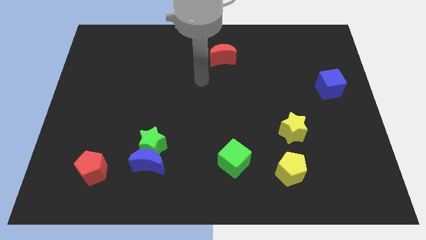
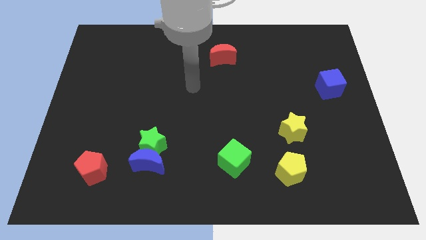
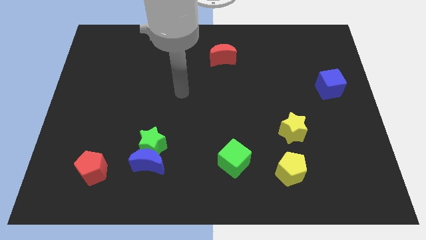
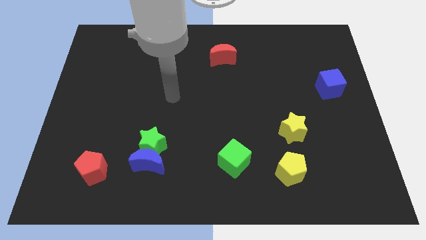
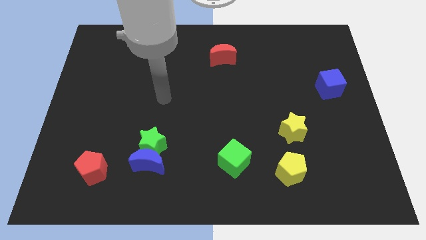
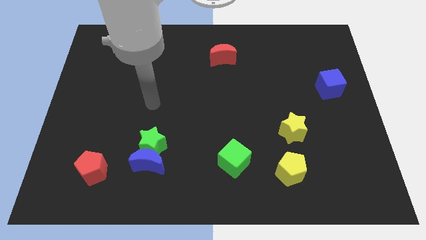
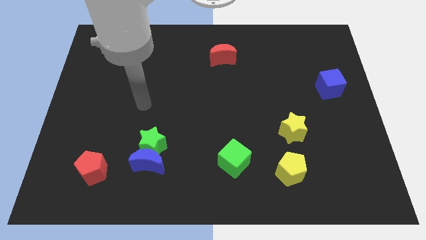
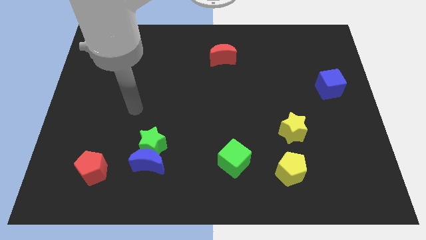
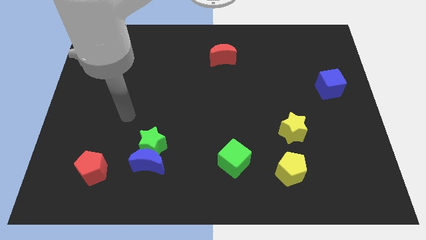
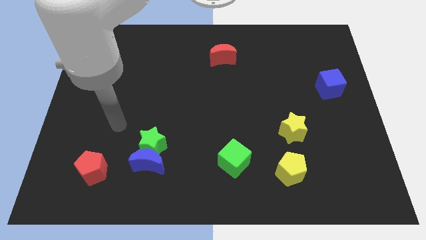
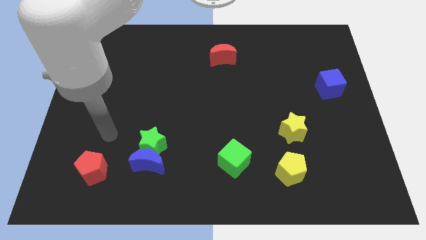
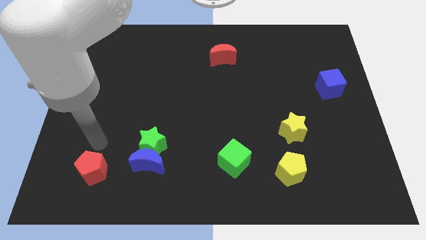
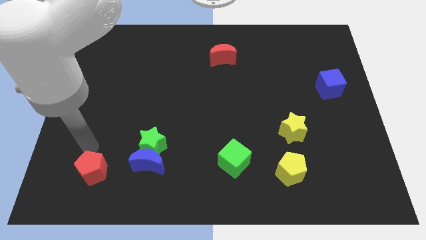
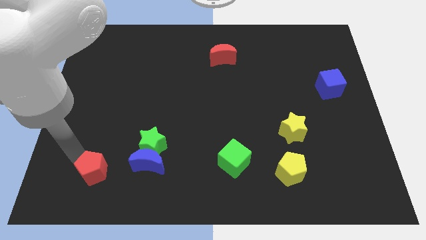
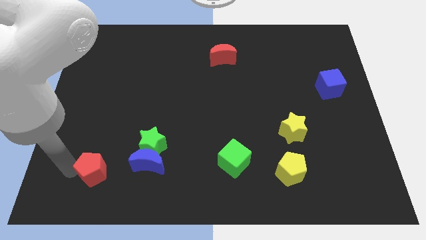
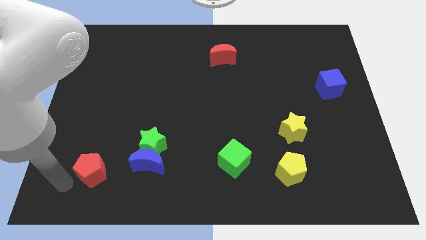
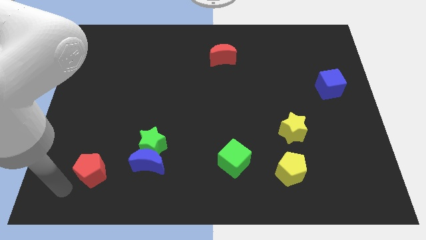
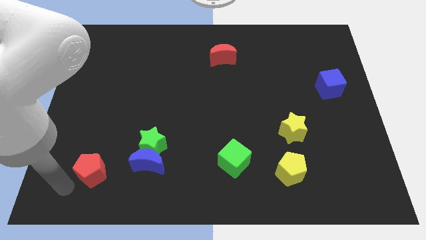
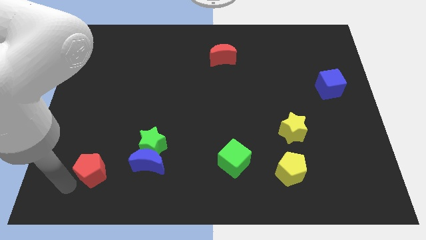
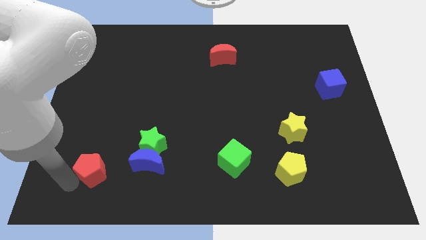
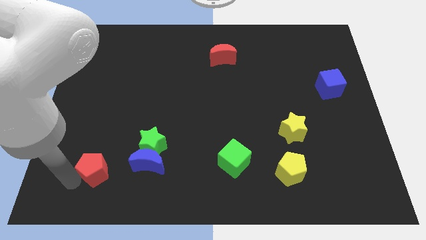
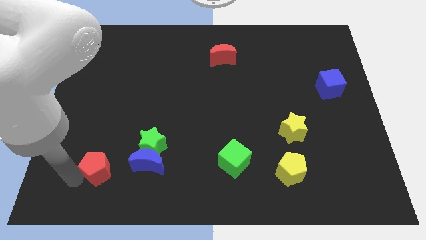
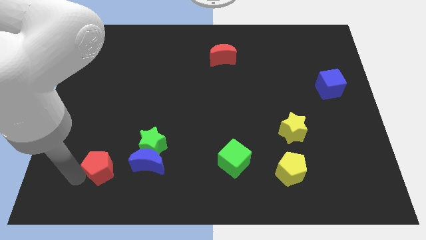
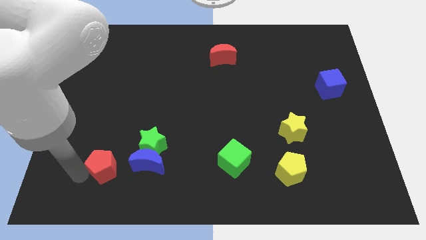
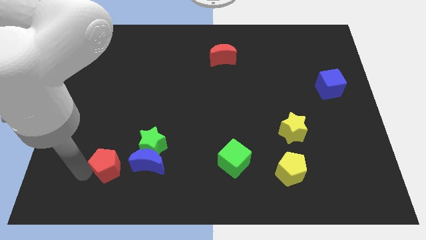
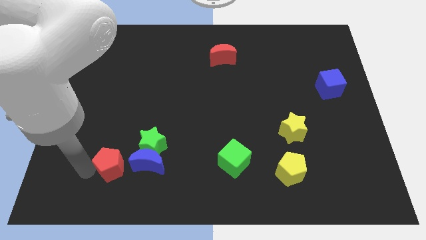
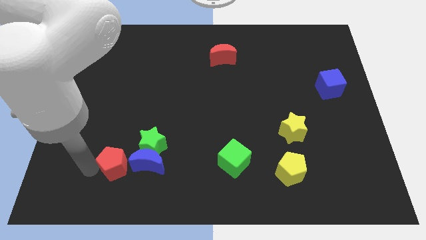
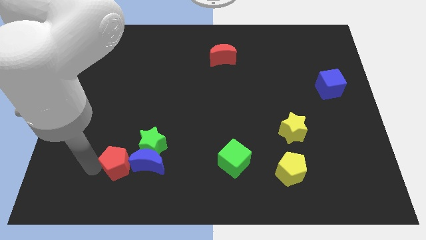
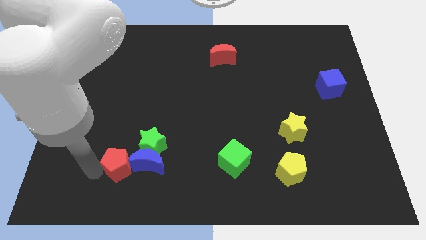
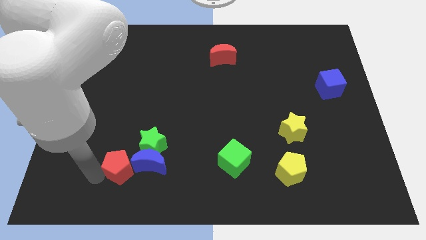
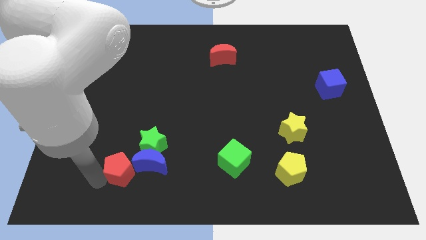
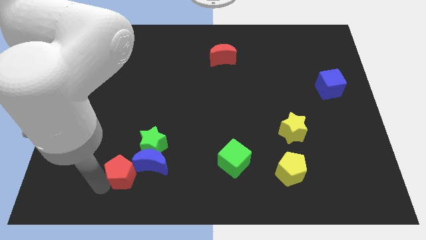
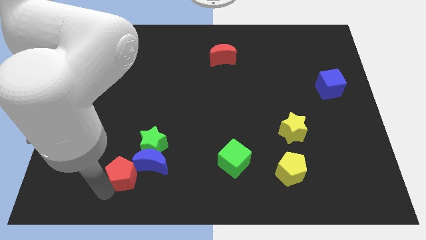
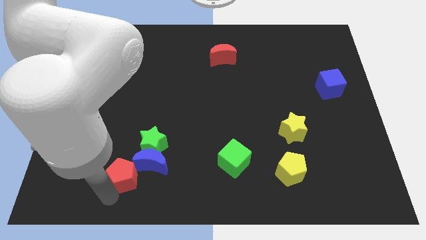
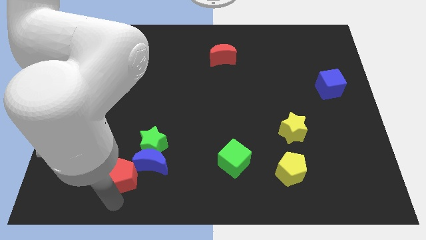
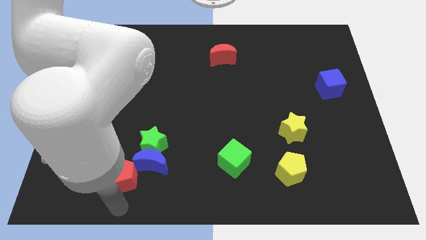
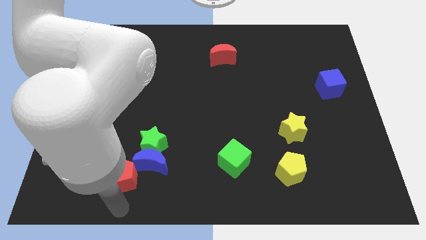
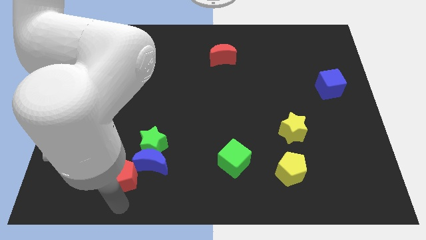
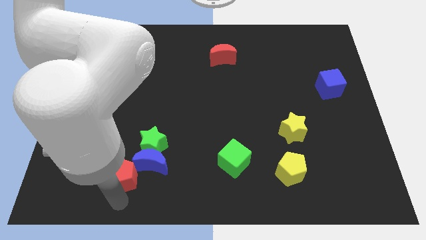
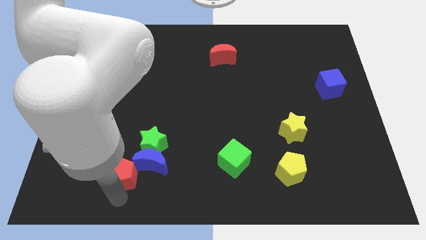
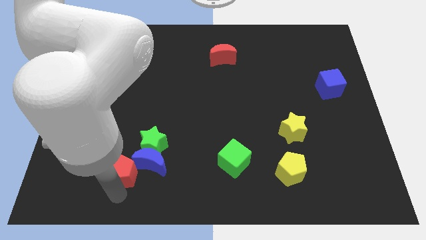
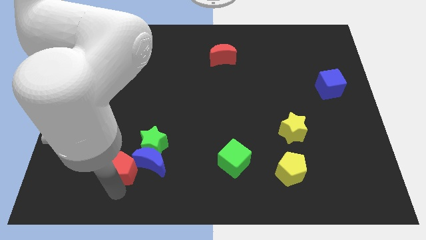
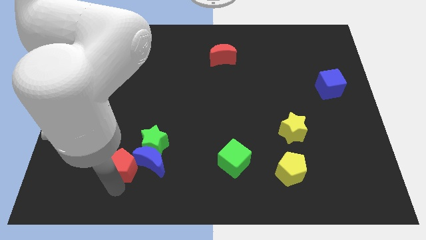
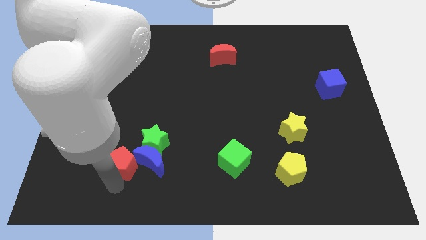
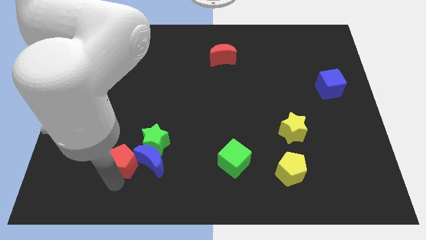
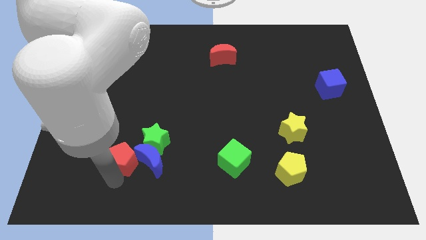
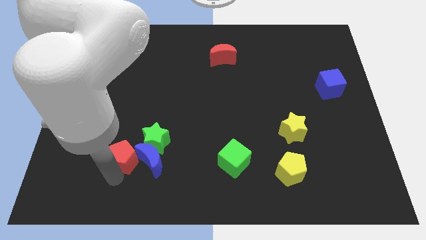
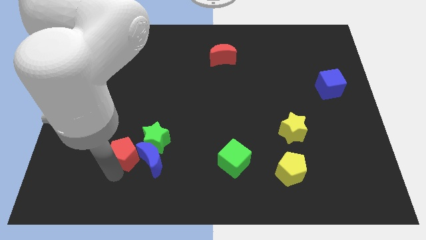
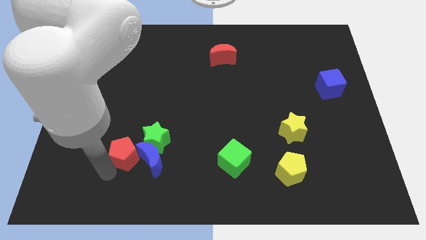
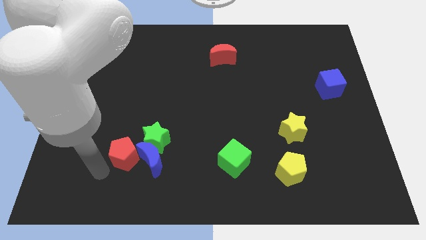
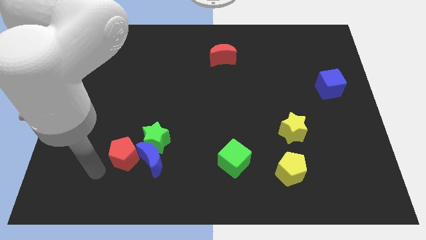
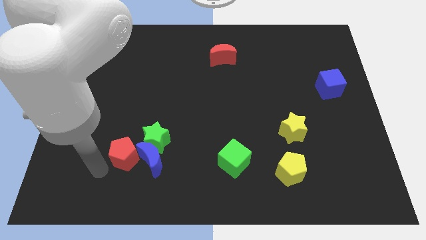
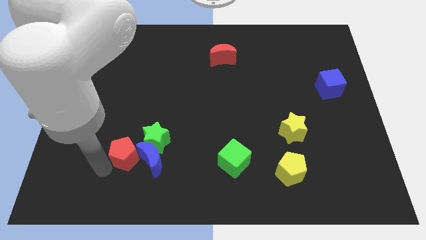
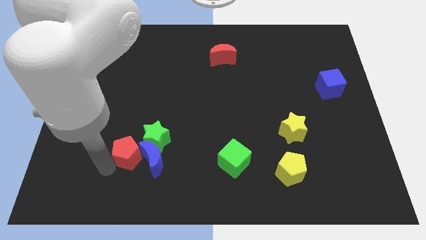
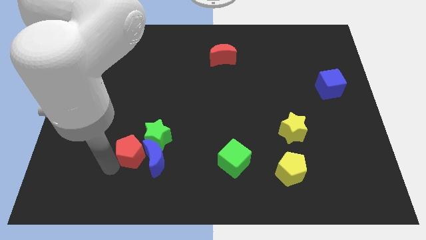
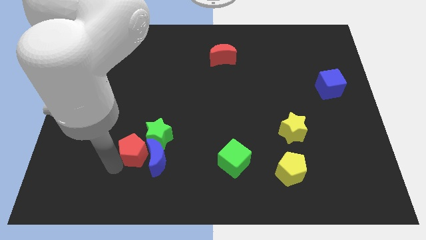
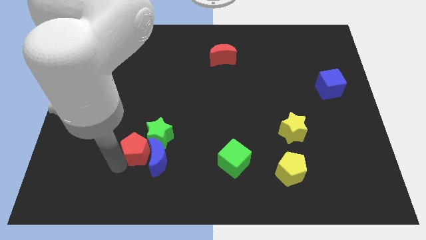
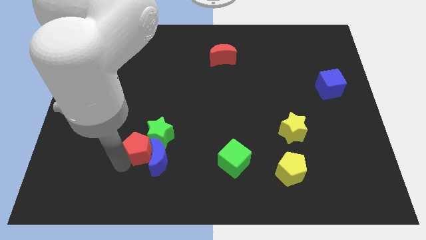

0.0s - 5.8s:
put the red pentagon close to the green star
